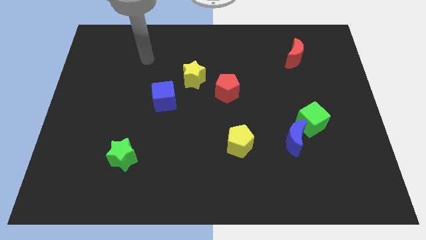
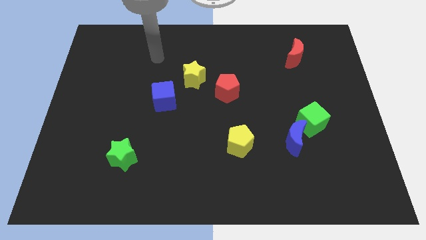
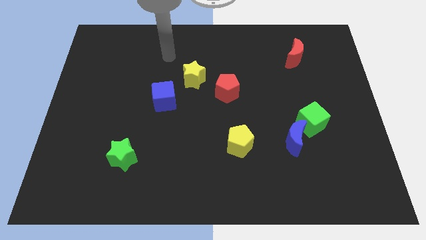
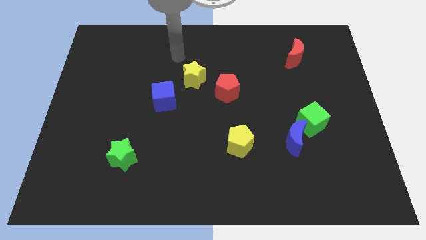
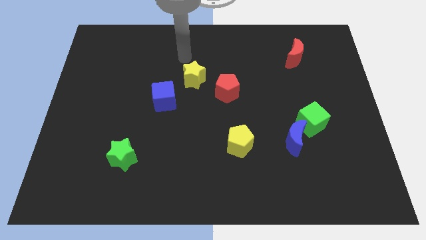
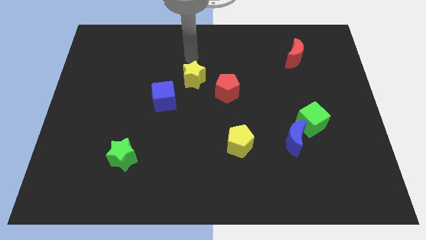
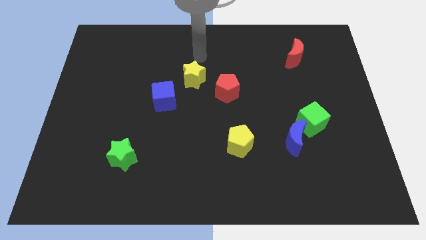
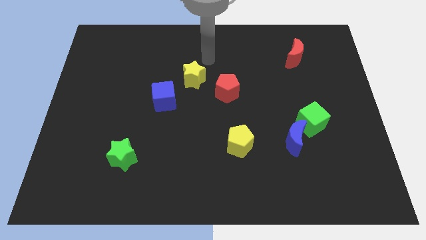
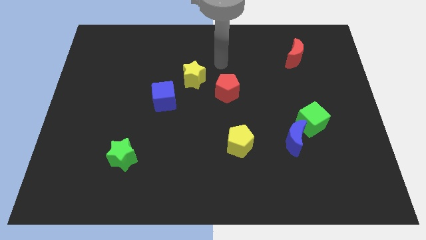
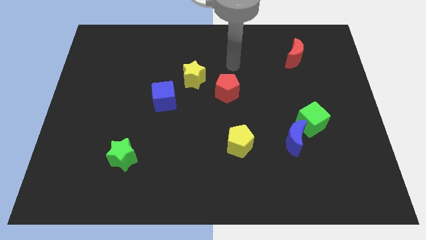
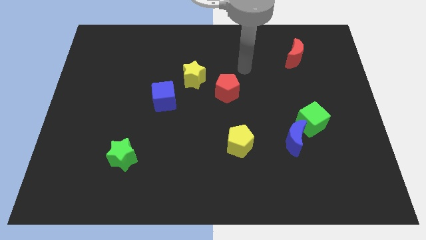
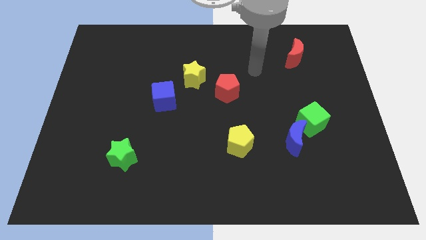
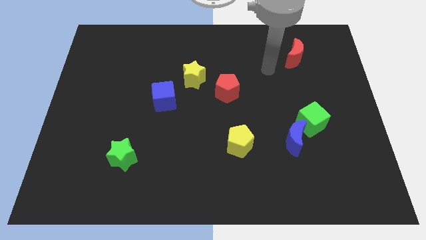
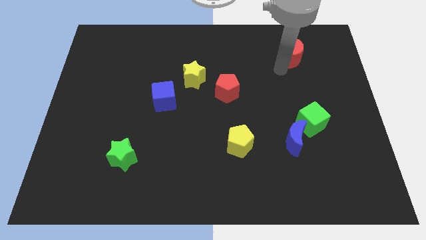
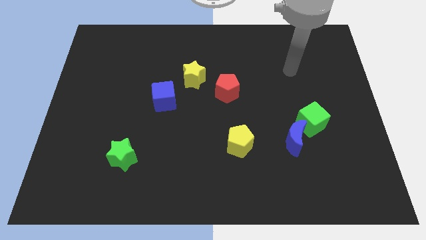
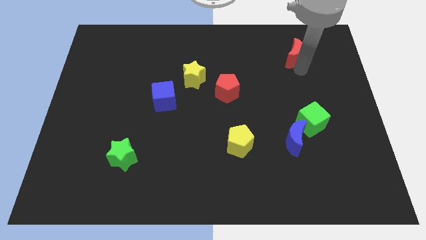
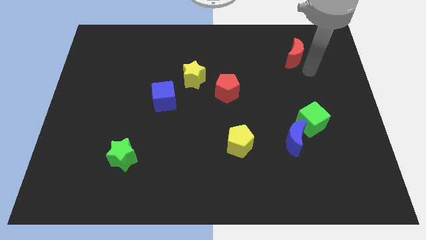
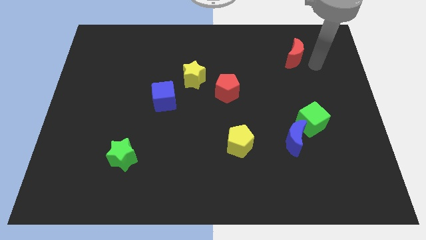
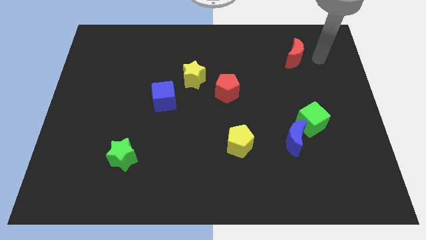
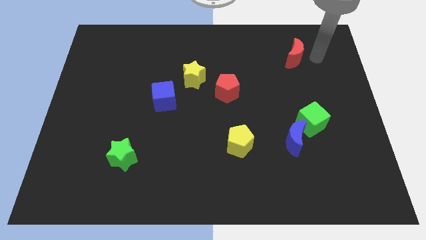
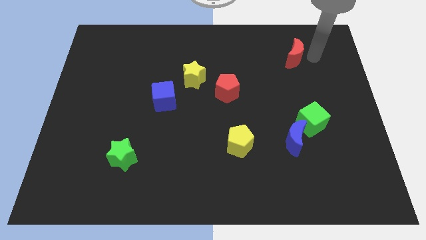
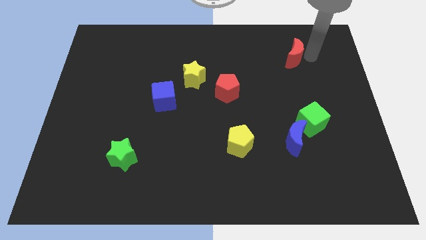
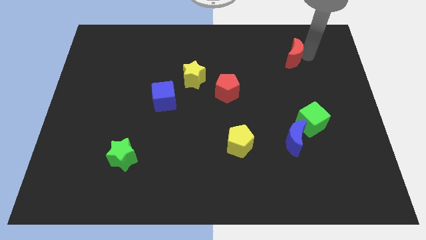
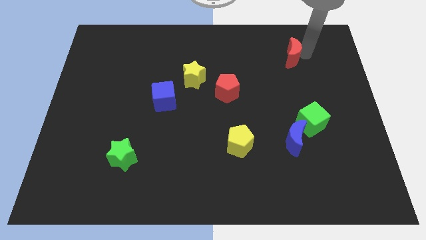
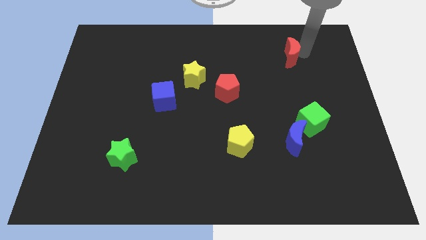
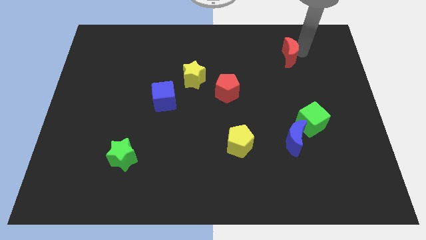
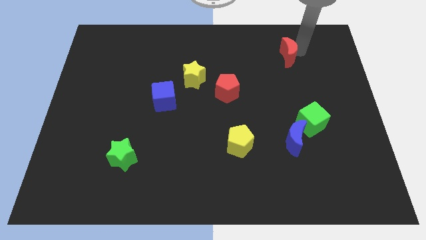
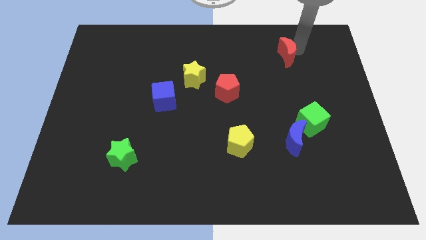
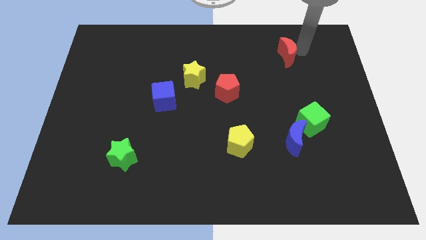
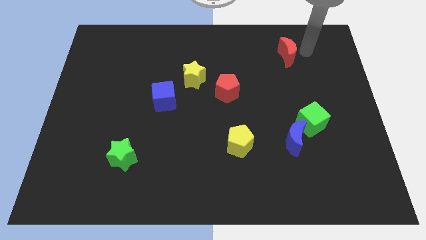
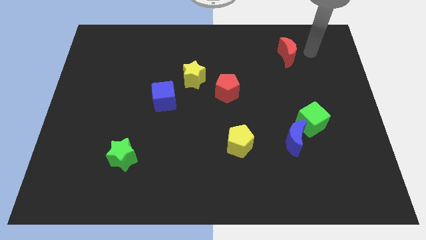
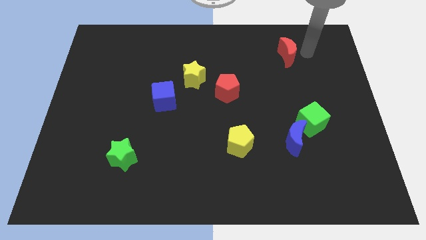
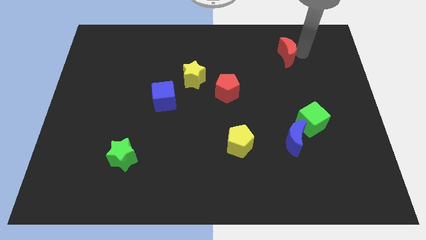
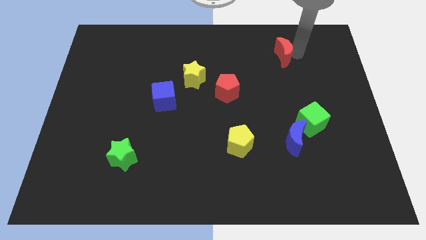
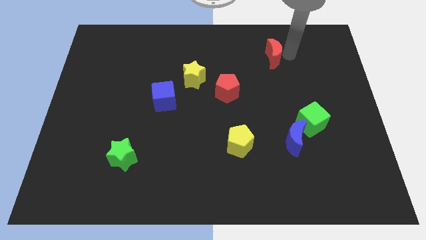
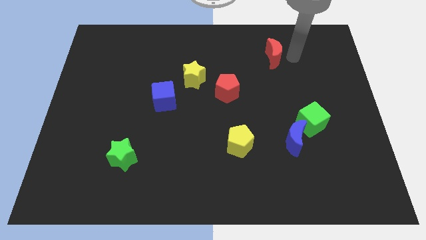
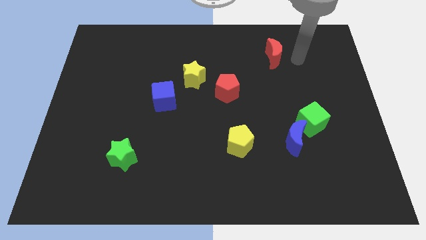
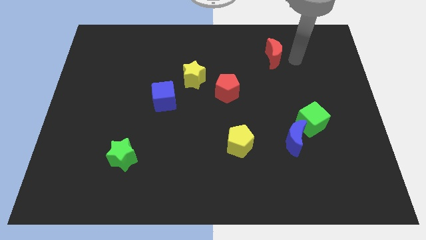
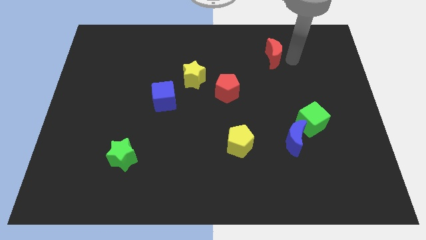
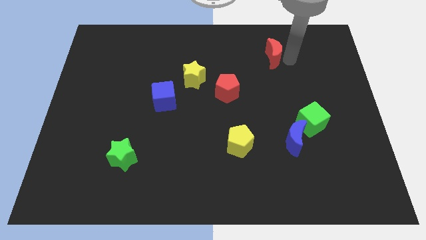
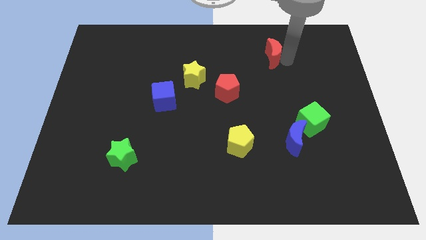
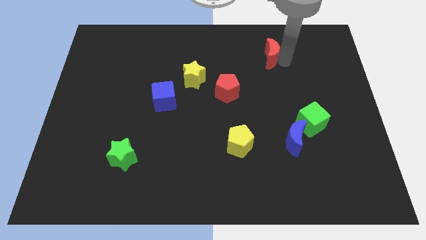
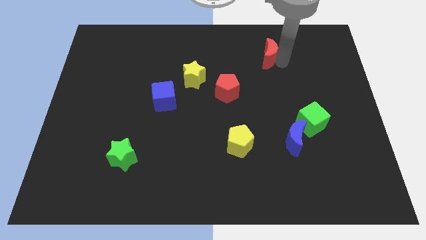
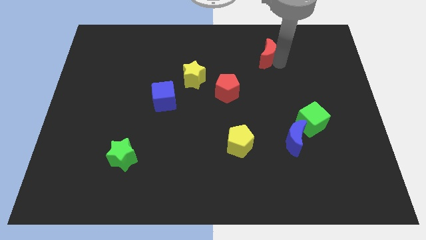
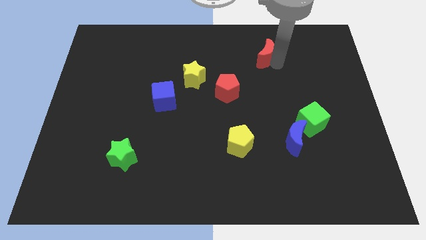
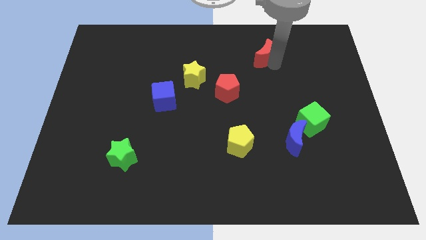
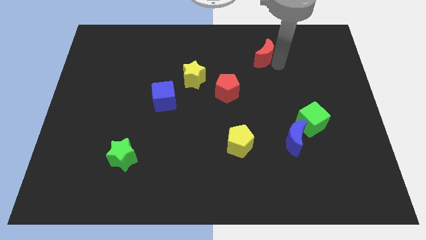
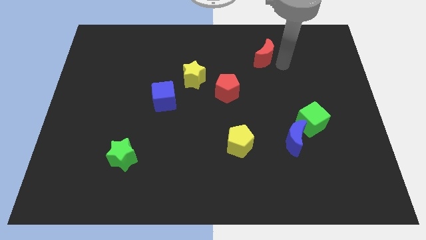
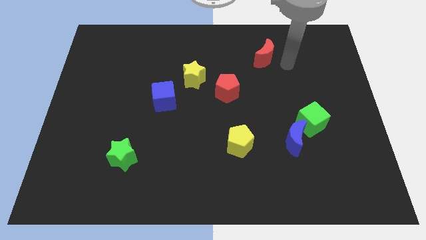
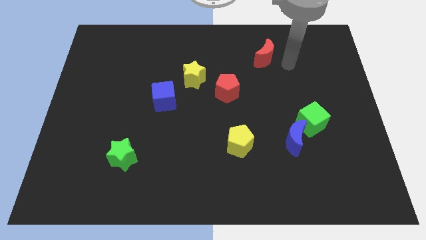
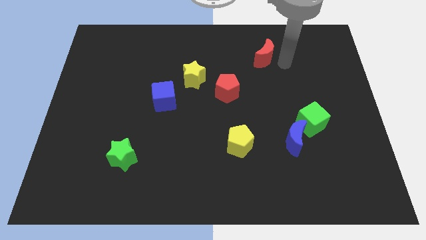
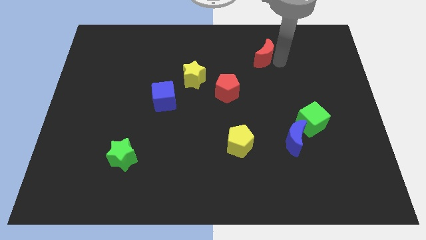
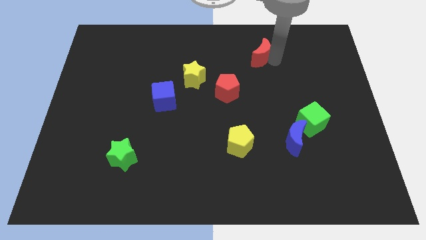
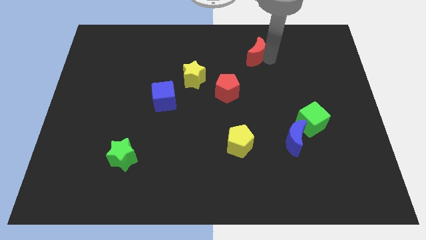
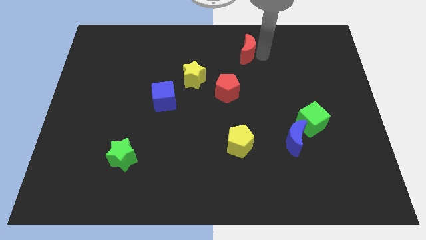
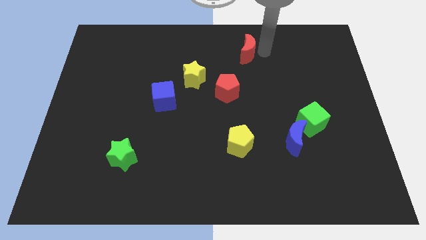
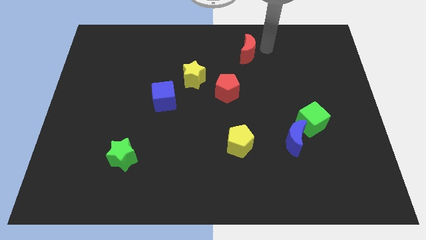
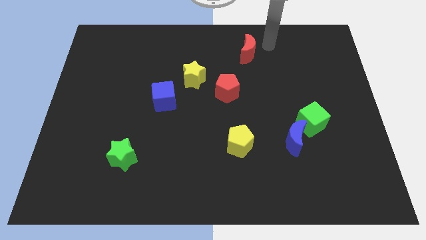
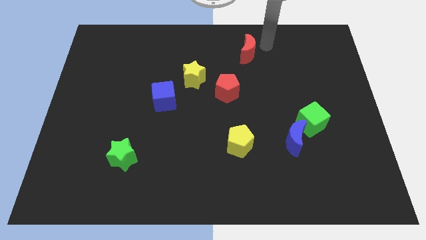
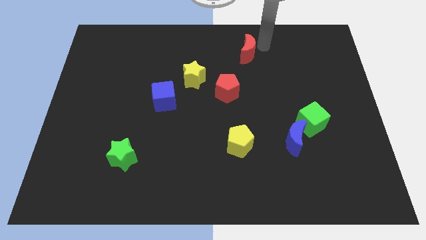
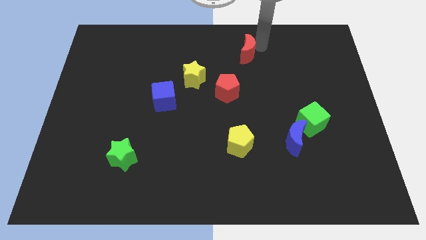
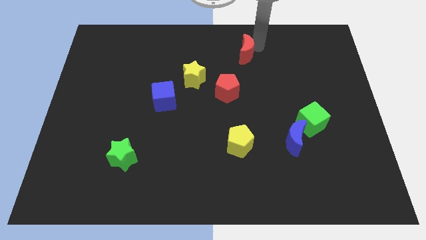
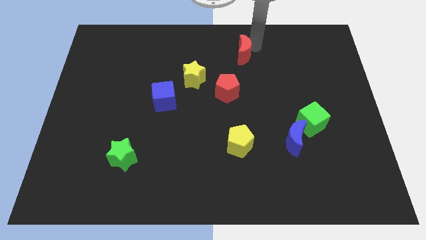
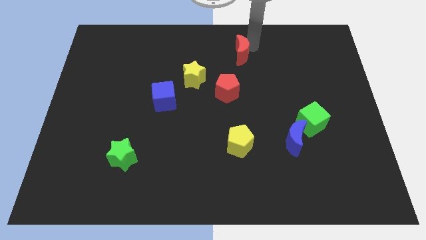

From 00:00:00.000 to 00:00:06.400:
push the red moon above the red pentagon

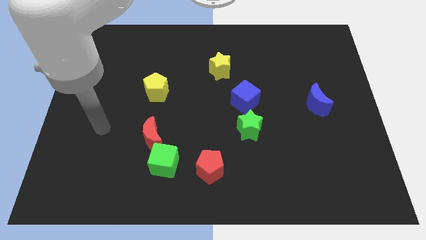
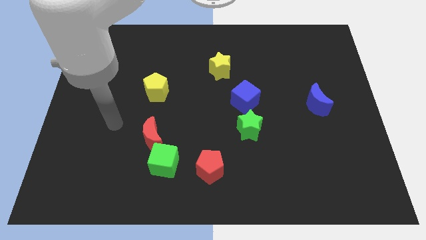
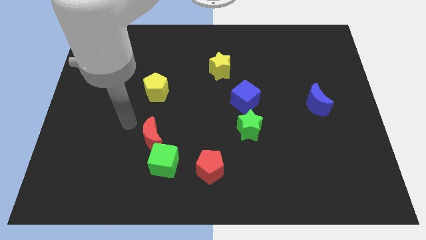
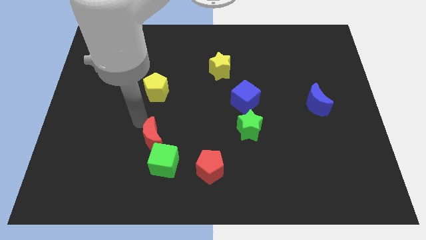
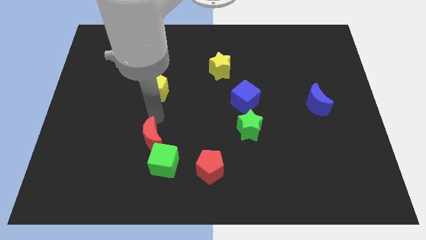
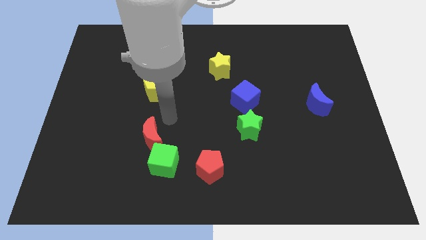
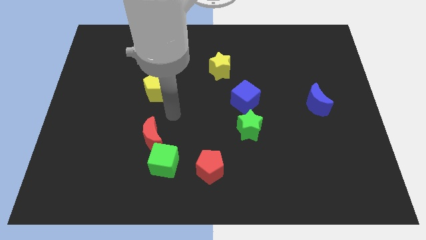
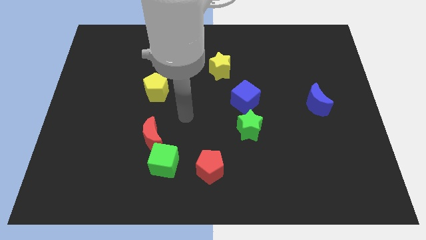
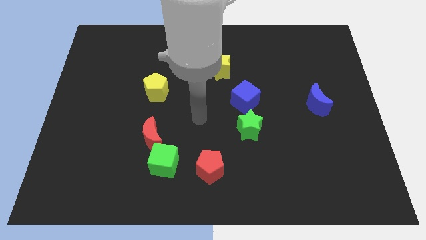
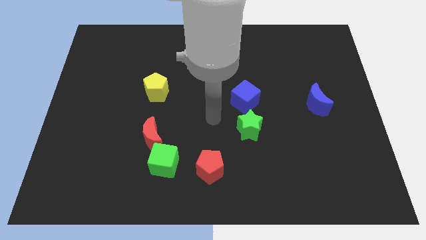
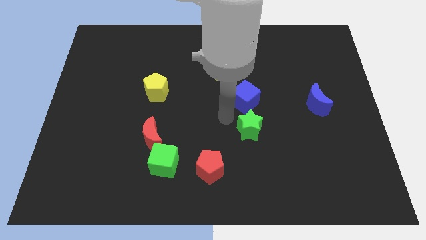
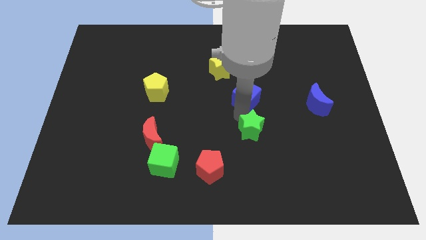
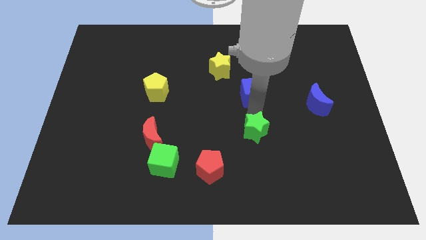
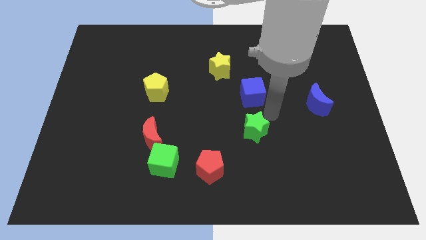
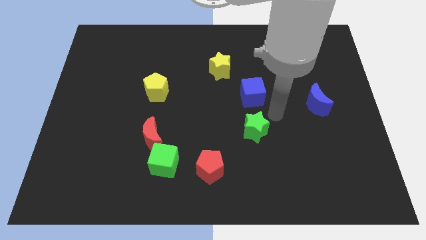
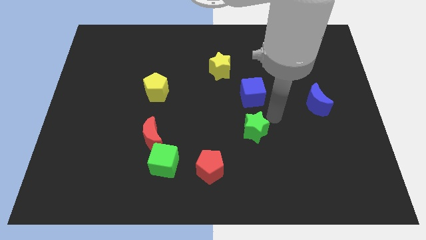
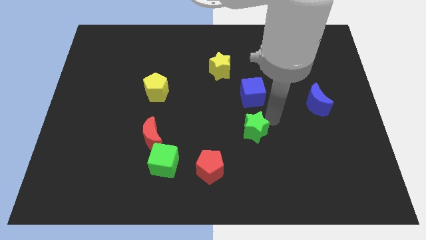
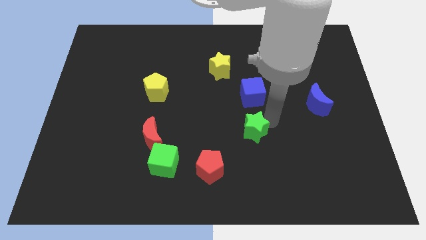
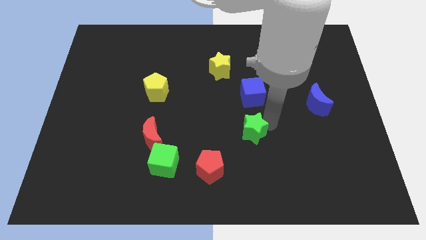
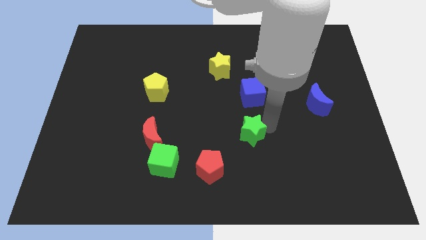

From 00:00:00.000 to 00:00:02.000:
put the green star diagonally up and to the right of the red pentagon
